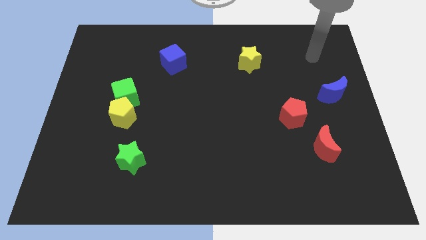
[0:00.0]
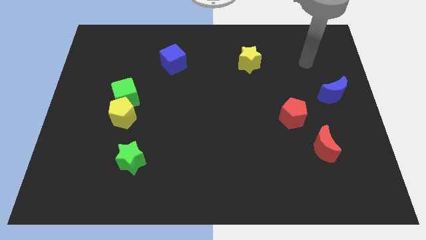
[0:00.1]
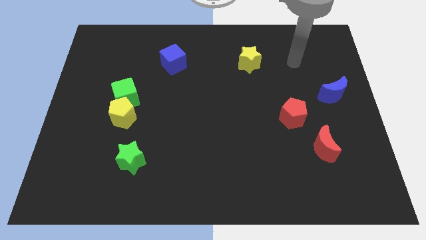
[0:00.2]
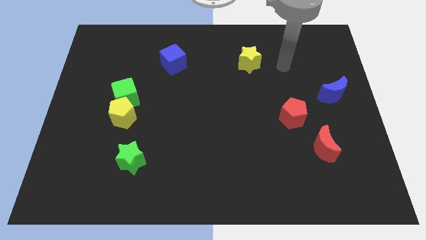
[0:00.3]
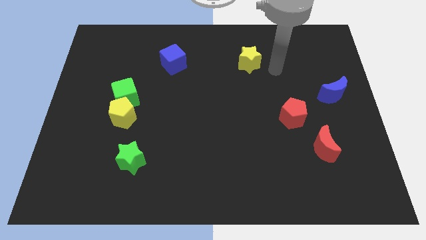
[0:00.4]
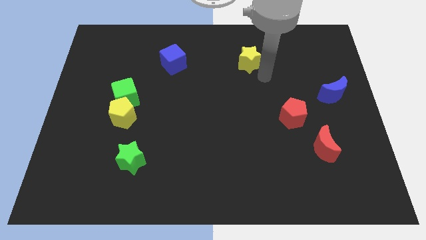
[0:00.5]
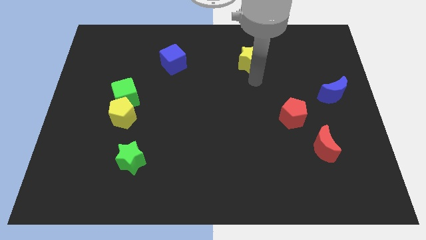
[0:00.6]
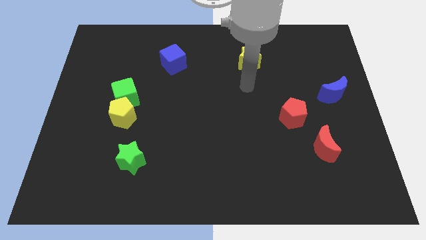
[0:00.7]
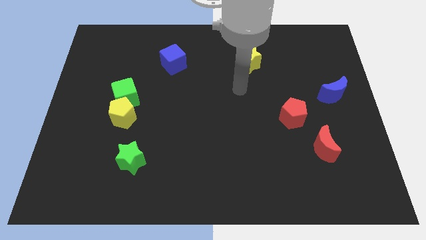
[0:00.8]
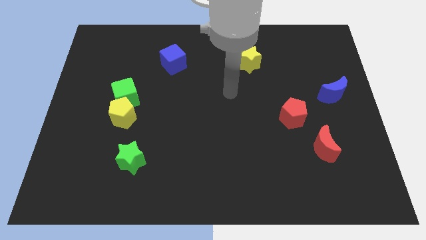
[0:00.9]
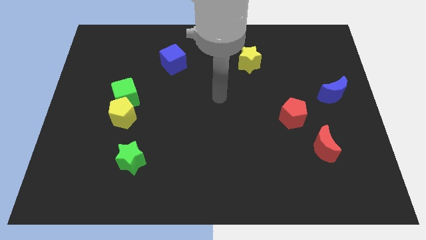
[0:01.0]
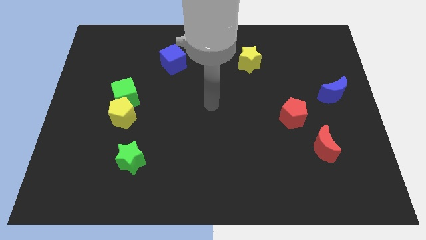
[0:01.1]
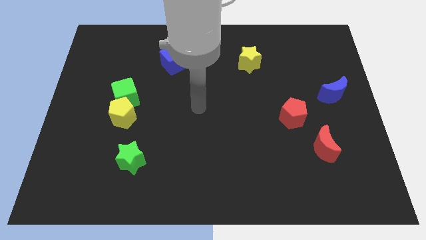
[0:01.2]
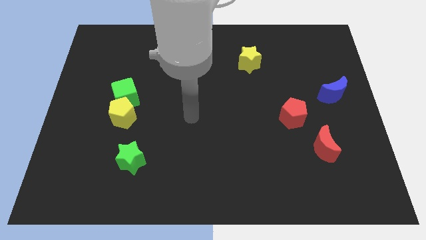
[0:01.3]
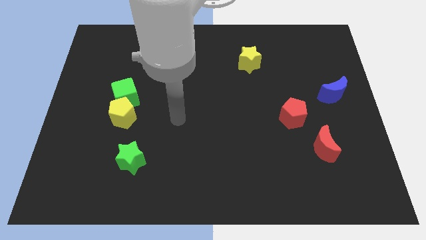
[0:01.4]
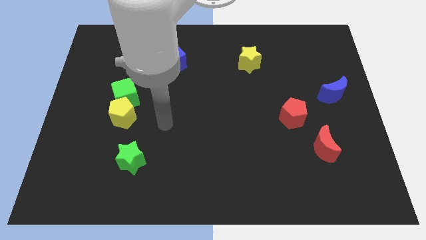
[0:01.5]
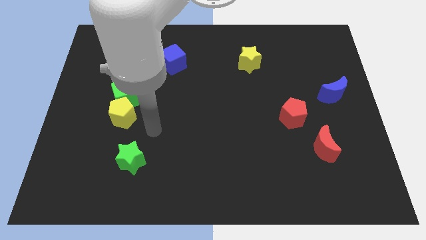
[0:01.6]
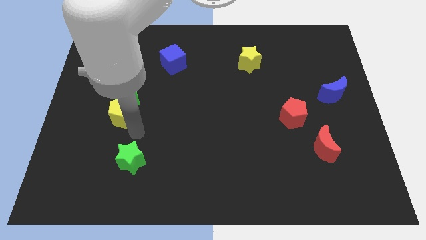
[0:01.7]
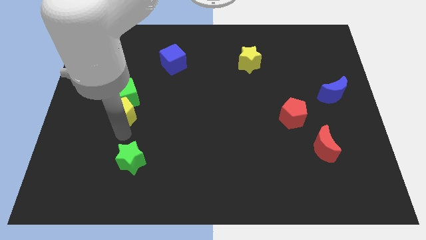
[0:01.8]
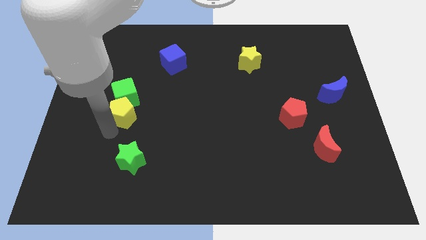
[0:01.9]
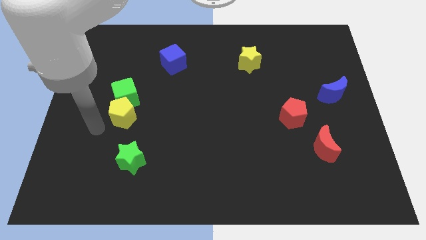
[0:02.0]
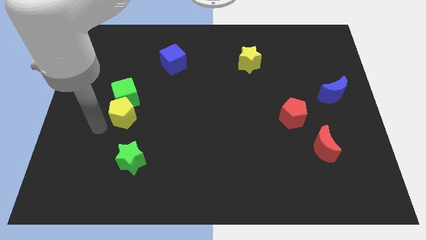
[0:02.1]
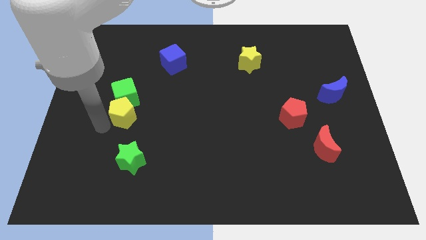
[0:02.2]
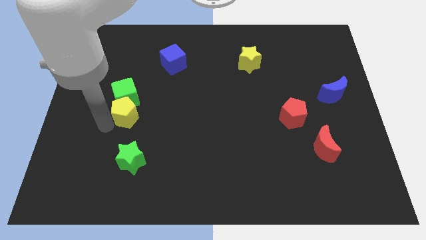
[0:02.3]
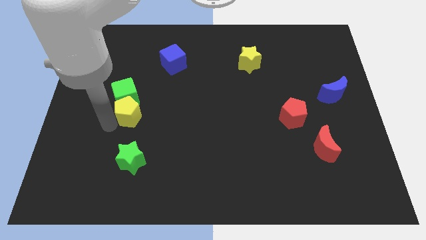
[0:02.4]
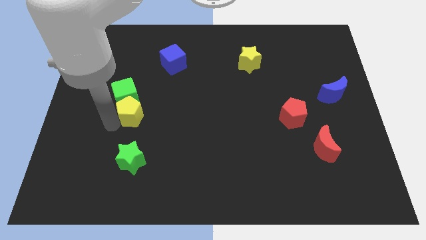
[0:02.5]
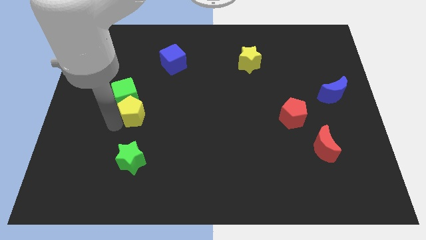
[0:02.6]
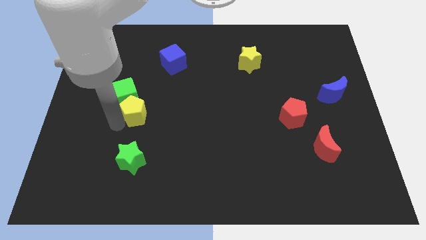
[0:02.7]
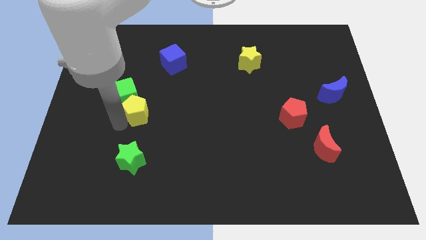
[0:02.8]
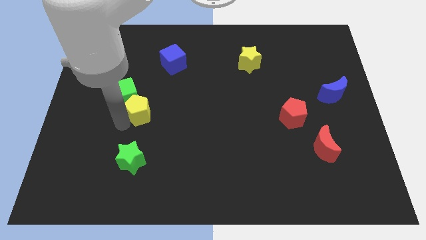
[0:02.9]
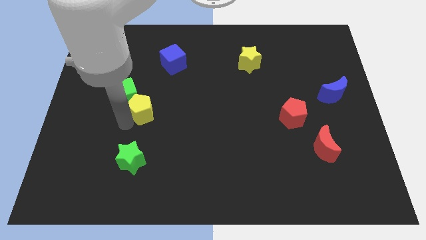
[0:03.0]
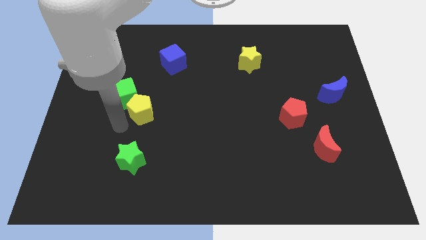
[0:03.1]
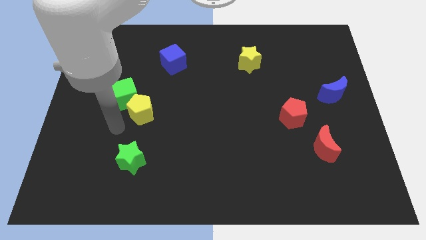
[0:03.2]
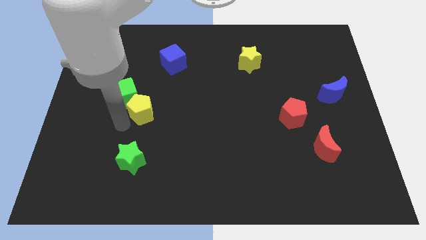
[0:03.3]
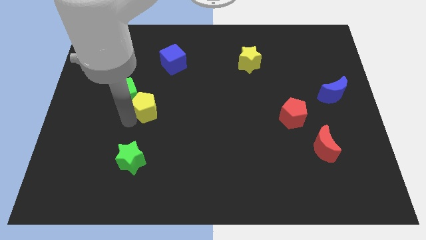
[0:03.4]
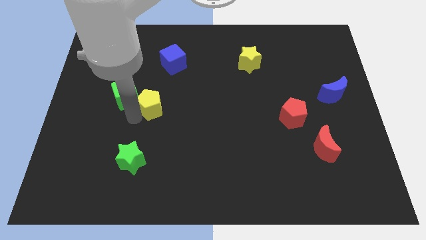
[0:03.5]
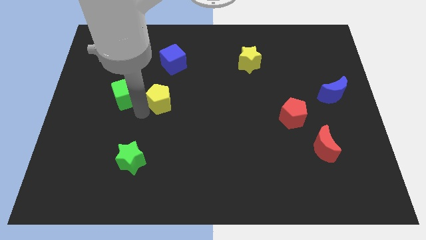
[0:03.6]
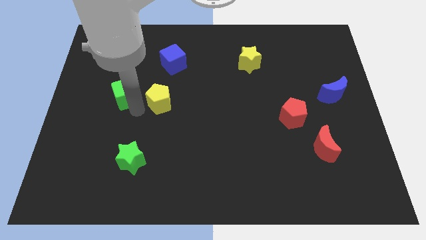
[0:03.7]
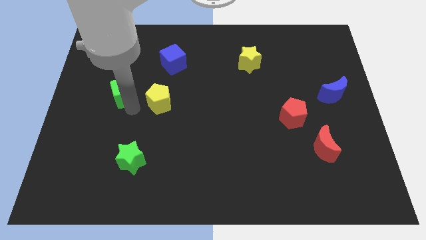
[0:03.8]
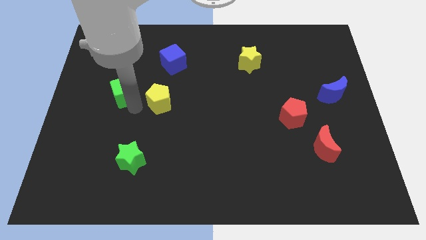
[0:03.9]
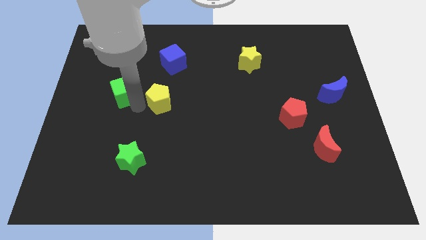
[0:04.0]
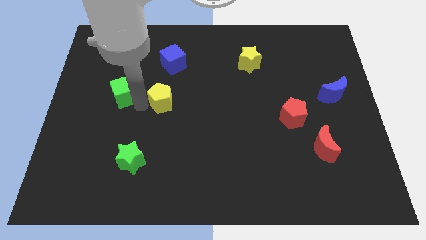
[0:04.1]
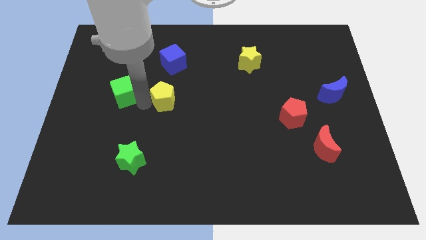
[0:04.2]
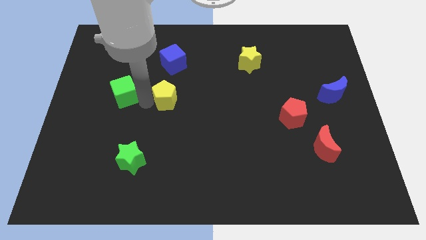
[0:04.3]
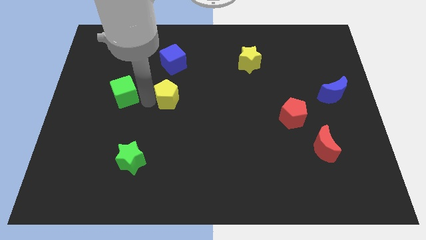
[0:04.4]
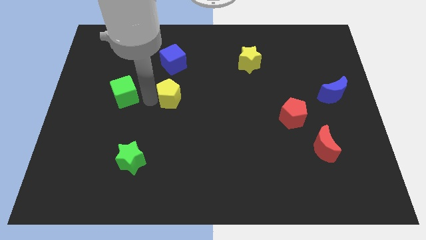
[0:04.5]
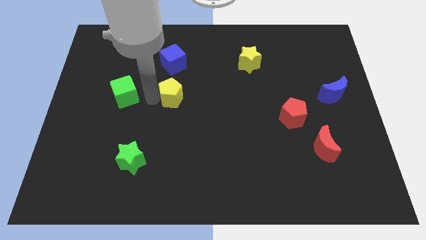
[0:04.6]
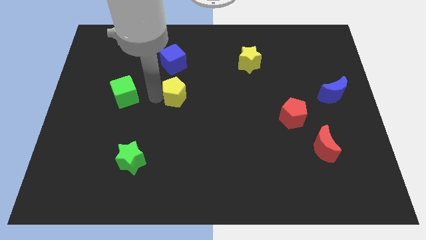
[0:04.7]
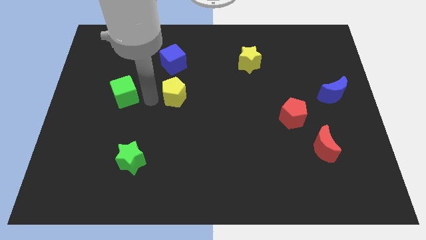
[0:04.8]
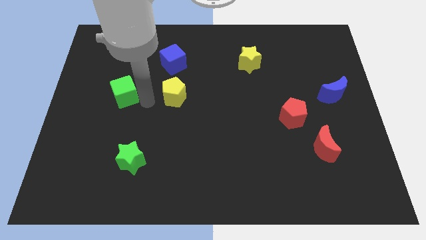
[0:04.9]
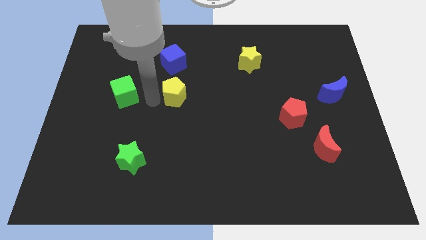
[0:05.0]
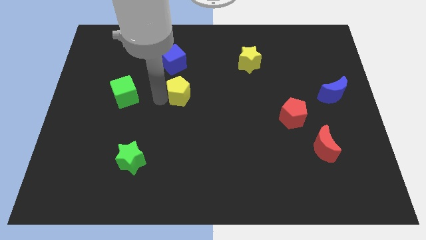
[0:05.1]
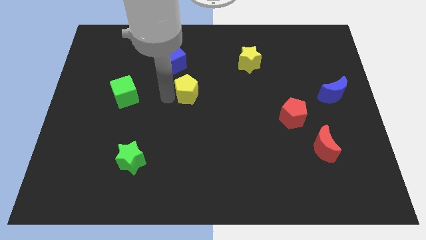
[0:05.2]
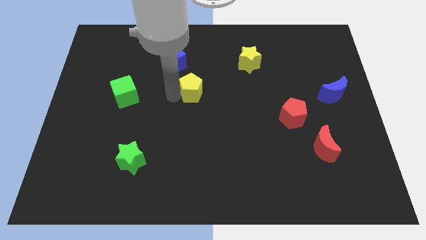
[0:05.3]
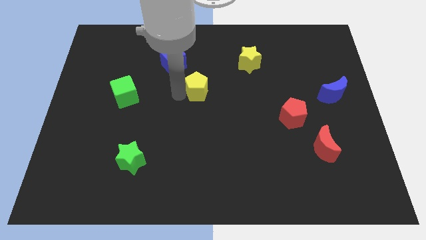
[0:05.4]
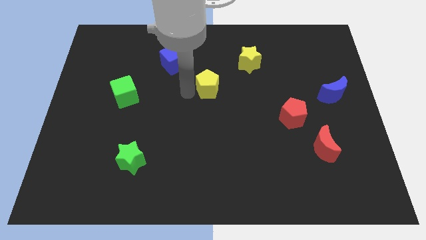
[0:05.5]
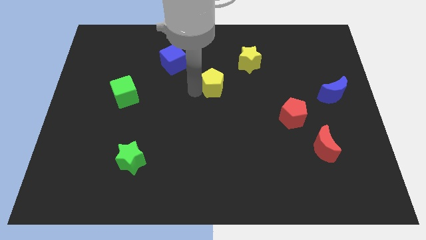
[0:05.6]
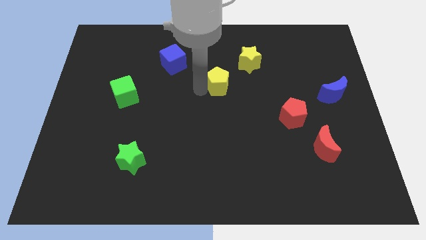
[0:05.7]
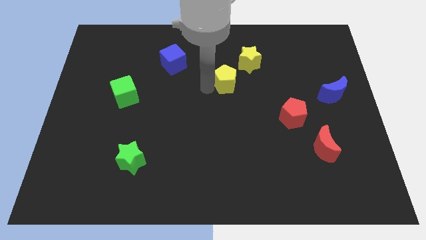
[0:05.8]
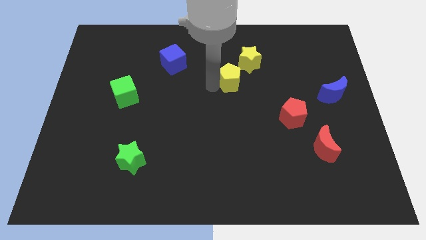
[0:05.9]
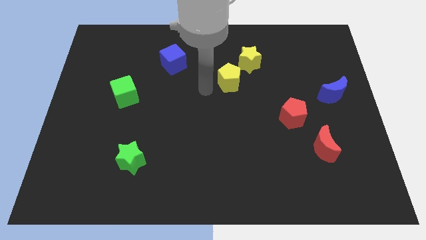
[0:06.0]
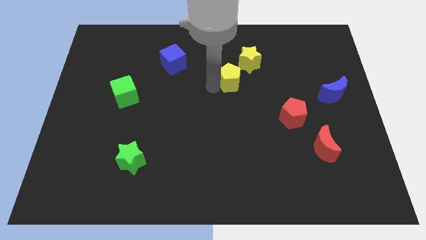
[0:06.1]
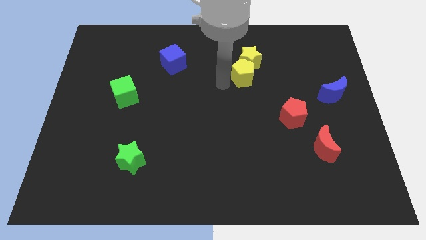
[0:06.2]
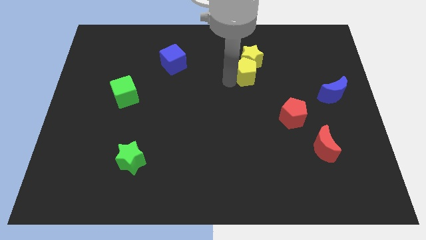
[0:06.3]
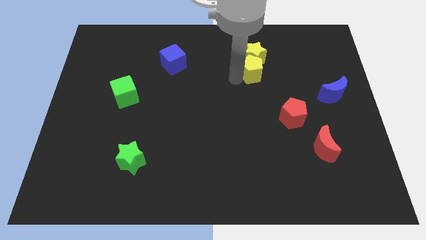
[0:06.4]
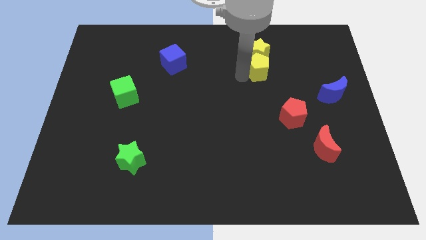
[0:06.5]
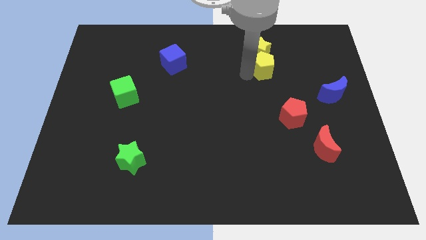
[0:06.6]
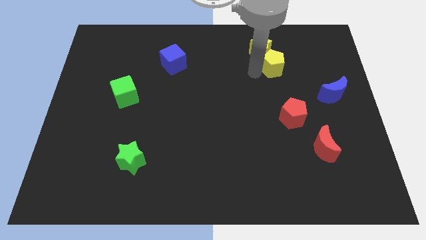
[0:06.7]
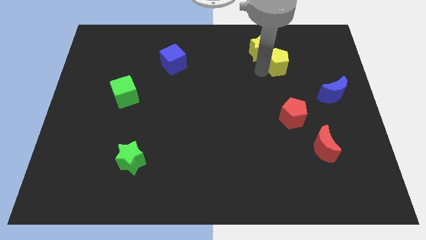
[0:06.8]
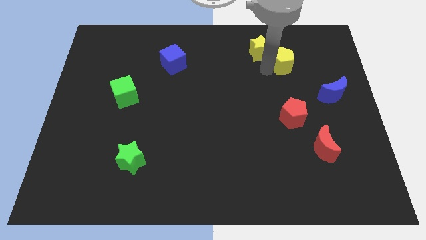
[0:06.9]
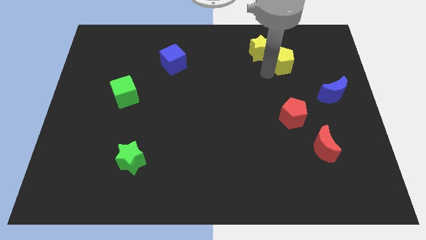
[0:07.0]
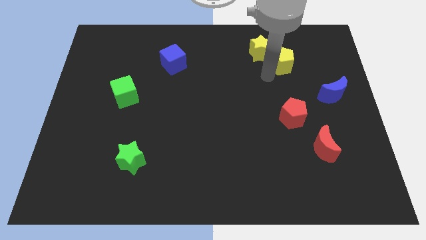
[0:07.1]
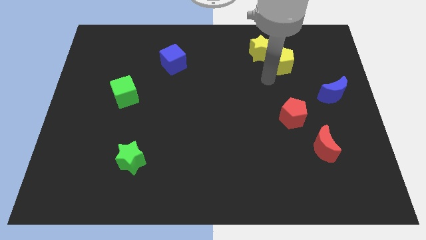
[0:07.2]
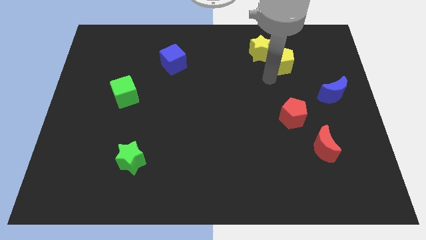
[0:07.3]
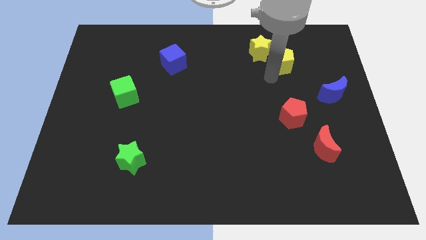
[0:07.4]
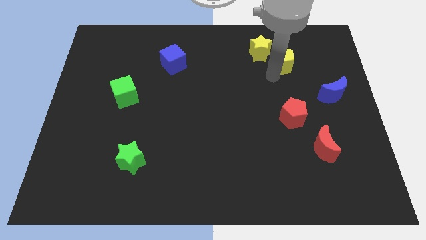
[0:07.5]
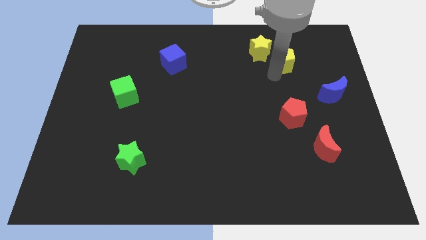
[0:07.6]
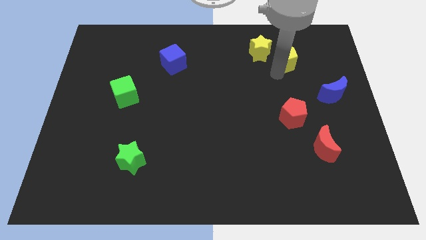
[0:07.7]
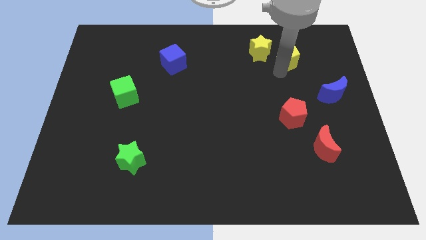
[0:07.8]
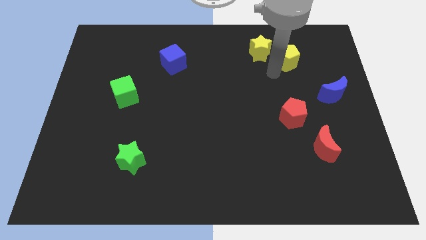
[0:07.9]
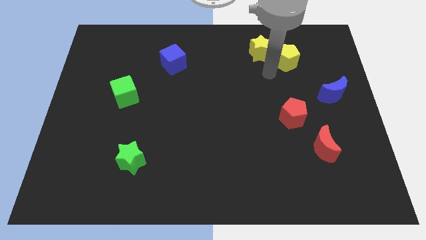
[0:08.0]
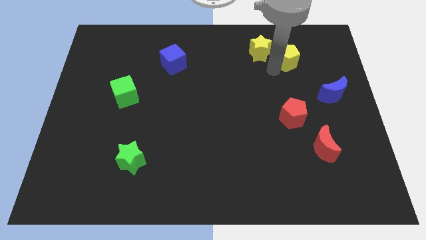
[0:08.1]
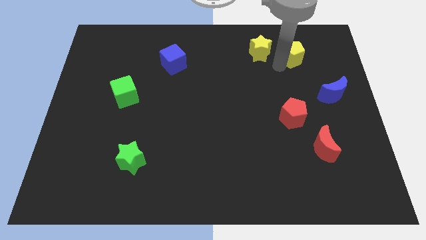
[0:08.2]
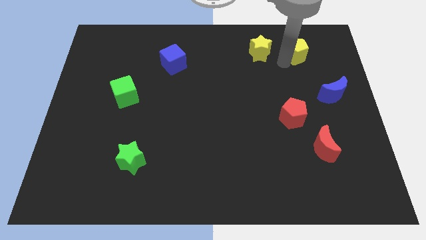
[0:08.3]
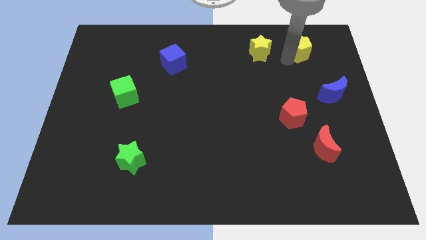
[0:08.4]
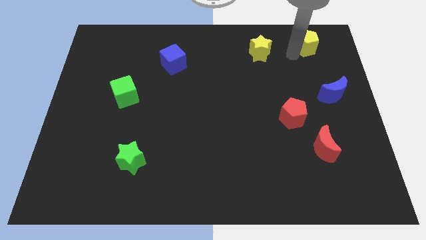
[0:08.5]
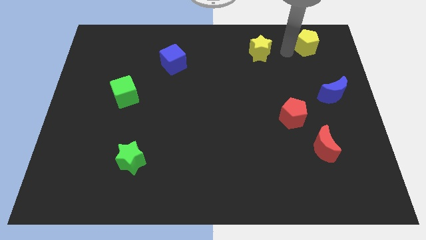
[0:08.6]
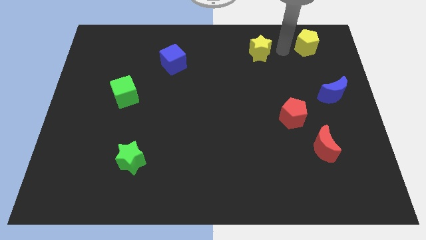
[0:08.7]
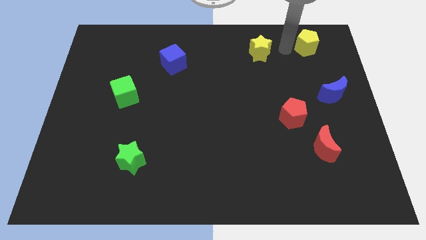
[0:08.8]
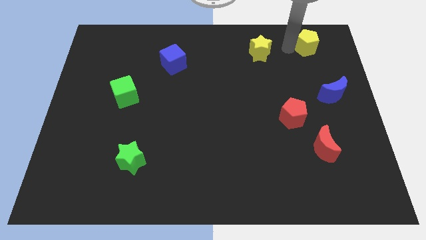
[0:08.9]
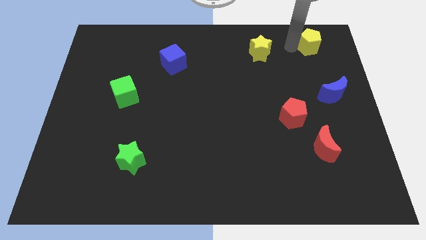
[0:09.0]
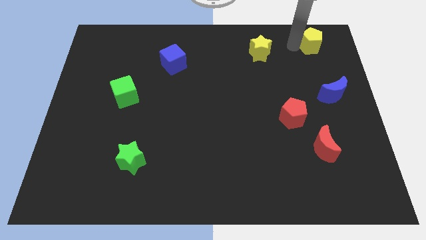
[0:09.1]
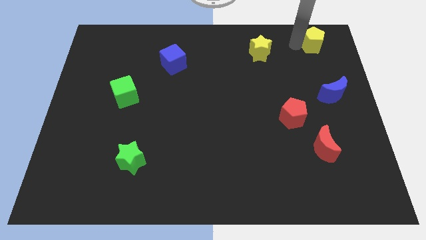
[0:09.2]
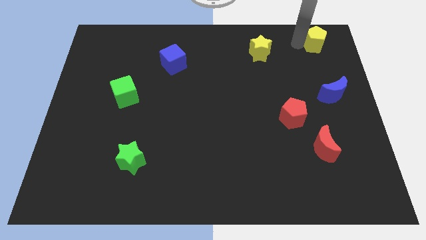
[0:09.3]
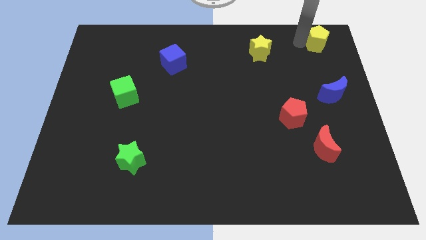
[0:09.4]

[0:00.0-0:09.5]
push the yellow pentagon to the top right
